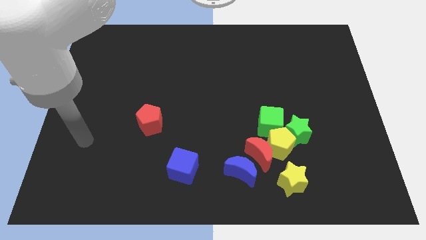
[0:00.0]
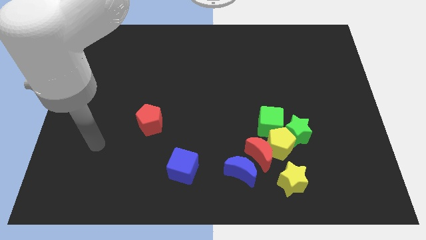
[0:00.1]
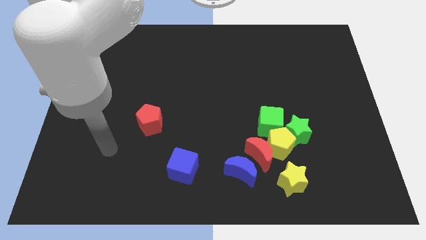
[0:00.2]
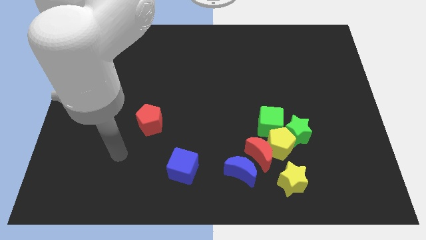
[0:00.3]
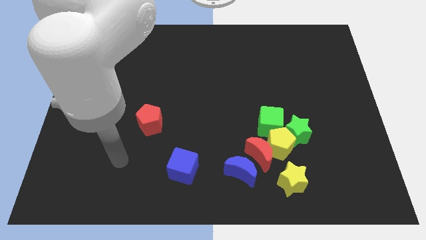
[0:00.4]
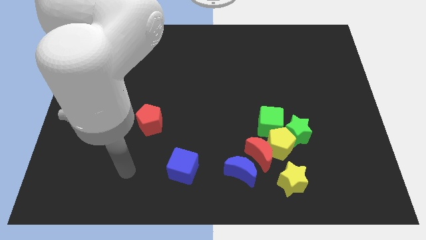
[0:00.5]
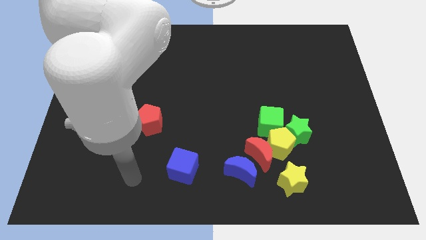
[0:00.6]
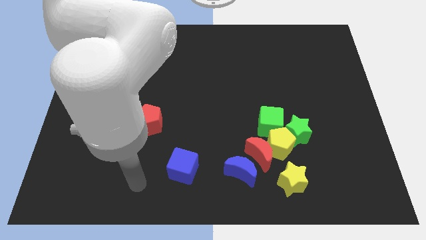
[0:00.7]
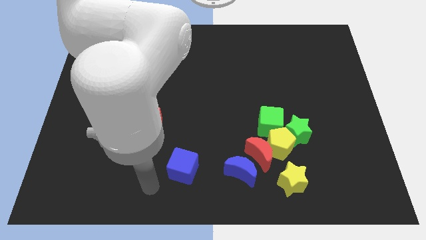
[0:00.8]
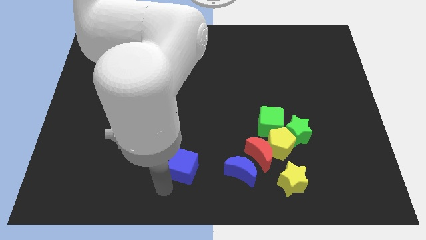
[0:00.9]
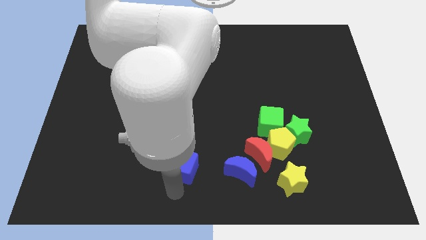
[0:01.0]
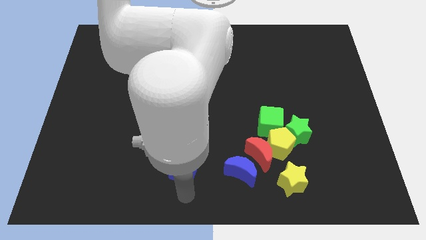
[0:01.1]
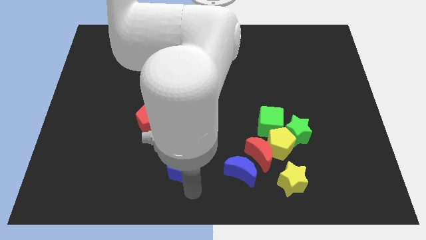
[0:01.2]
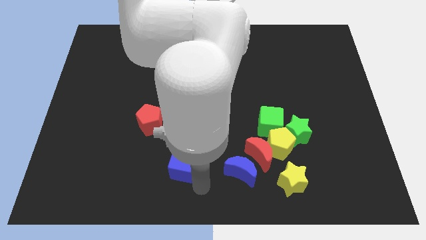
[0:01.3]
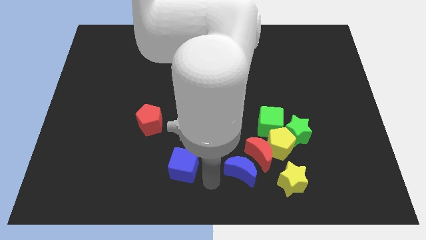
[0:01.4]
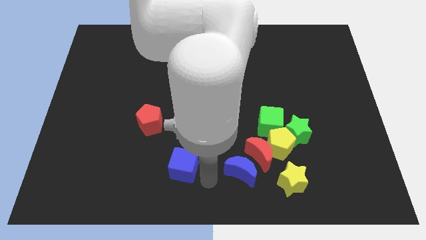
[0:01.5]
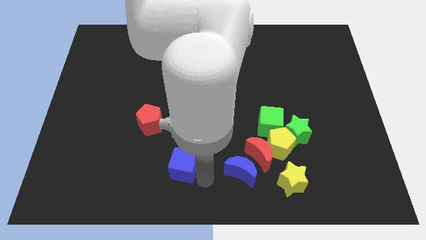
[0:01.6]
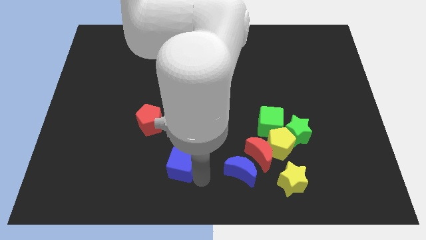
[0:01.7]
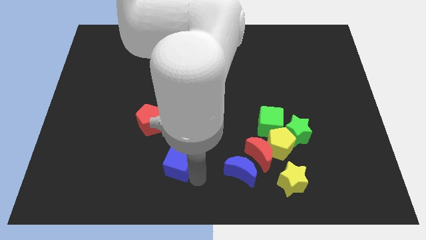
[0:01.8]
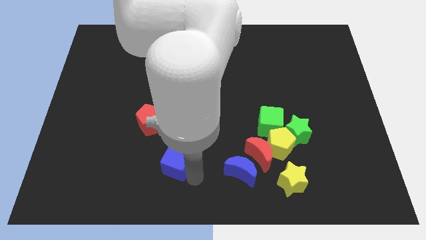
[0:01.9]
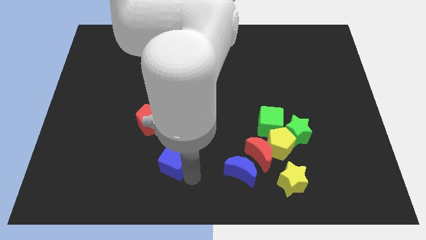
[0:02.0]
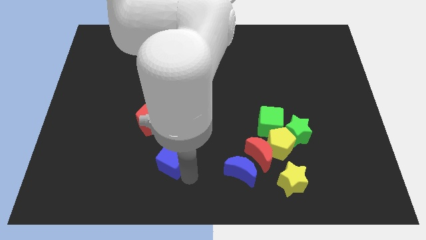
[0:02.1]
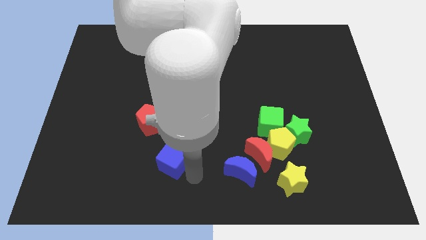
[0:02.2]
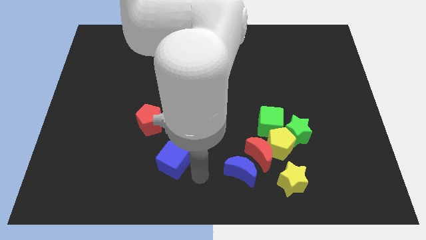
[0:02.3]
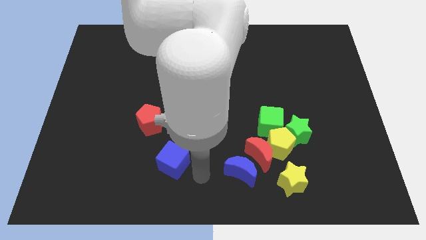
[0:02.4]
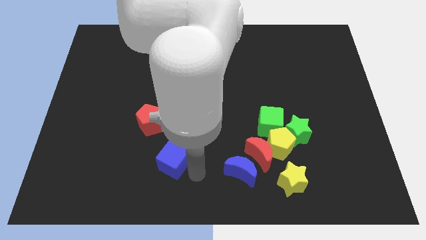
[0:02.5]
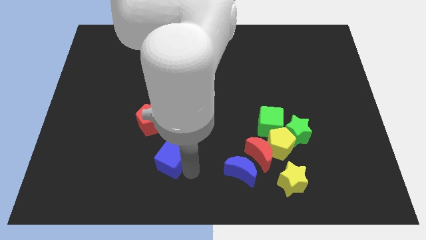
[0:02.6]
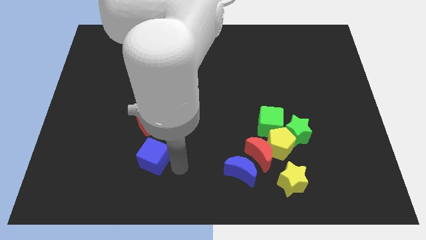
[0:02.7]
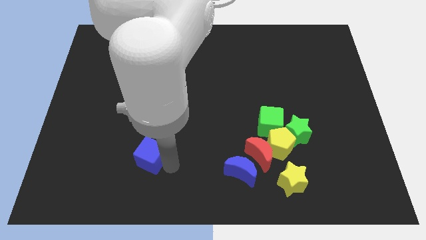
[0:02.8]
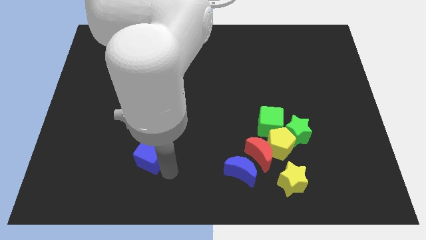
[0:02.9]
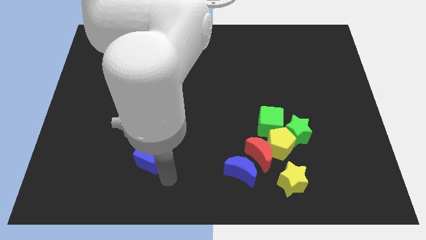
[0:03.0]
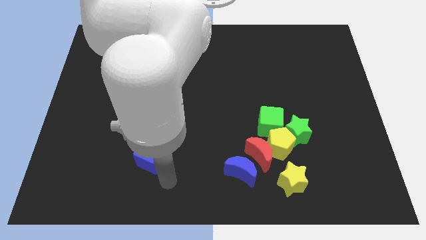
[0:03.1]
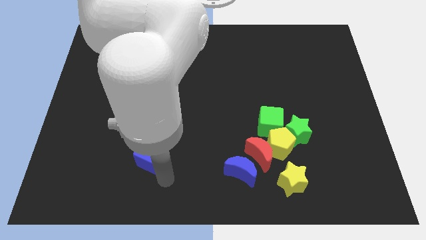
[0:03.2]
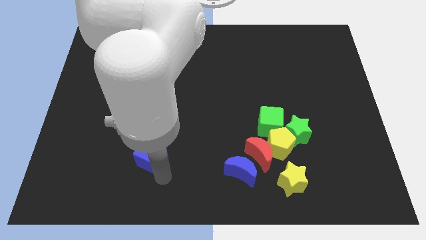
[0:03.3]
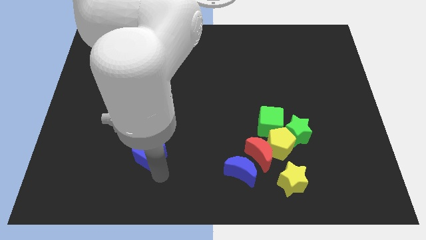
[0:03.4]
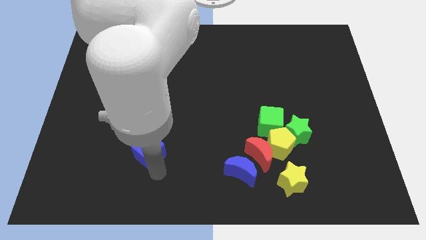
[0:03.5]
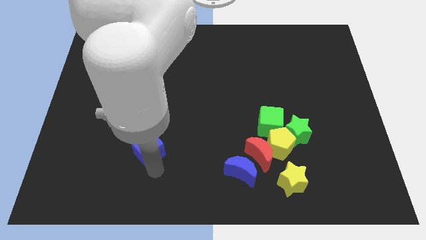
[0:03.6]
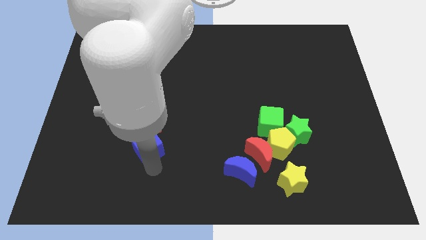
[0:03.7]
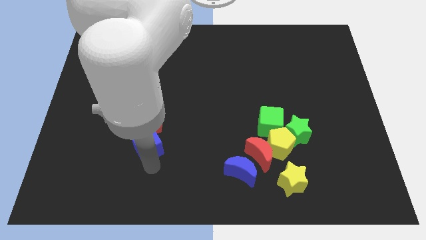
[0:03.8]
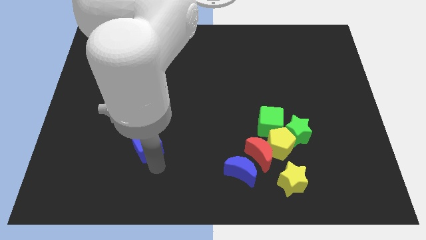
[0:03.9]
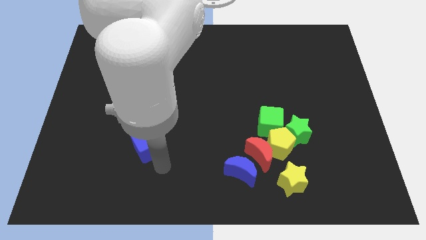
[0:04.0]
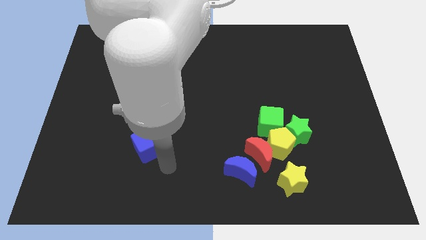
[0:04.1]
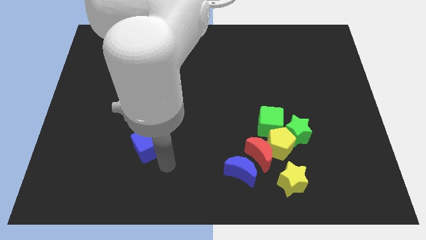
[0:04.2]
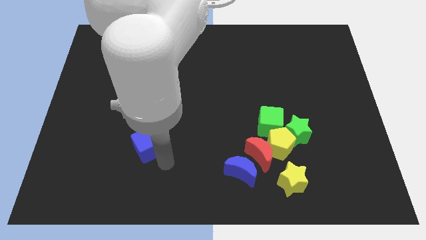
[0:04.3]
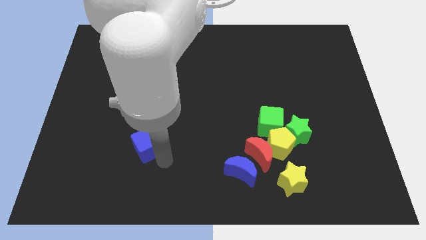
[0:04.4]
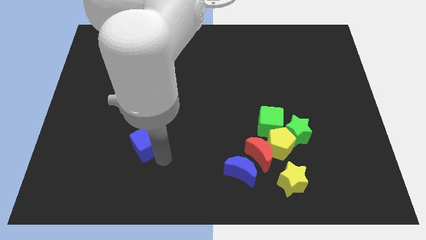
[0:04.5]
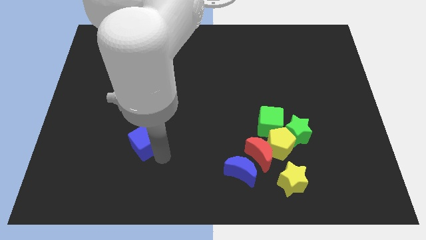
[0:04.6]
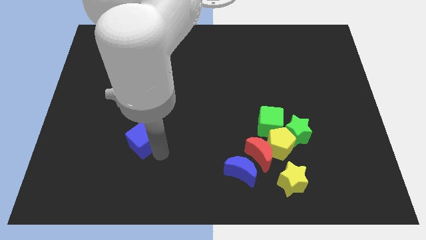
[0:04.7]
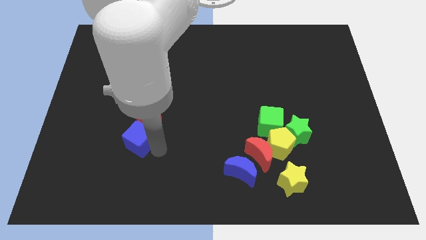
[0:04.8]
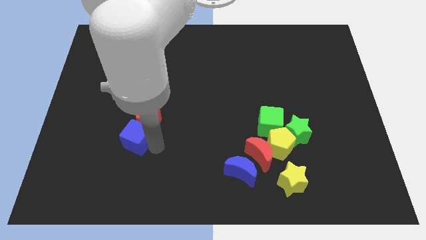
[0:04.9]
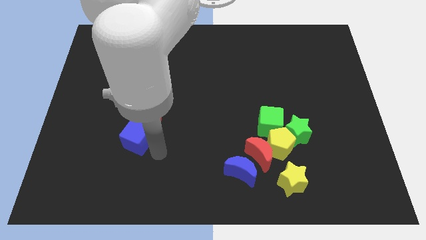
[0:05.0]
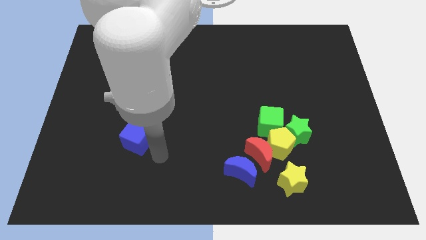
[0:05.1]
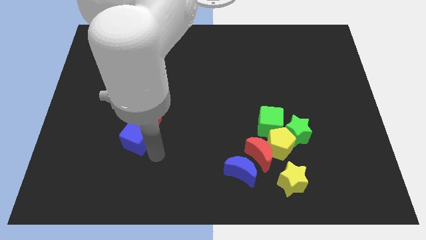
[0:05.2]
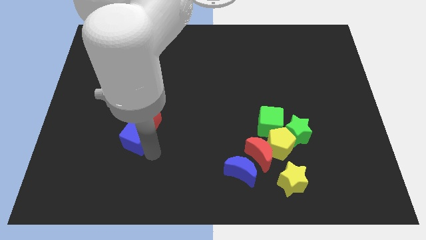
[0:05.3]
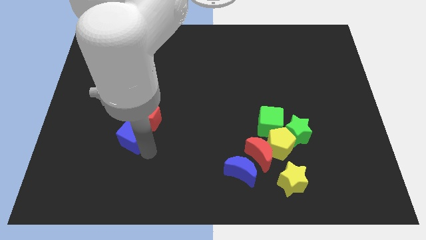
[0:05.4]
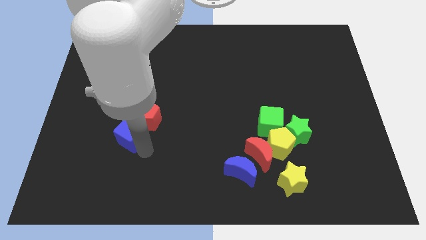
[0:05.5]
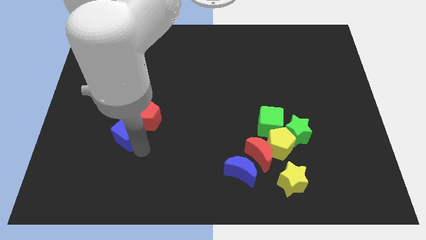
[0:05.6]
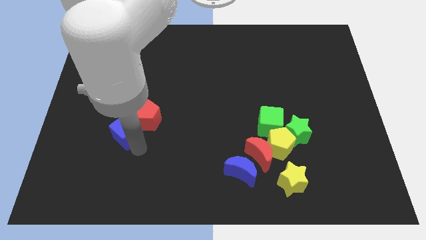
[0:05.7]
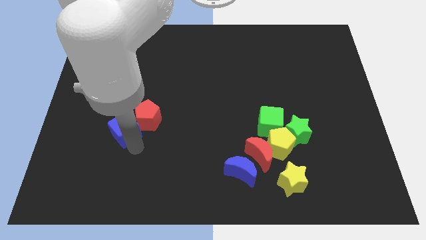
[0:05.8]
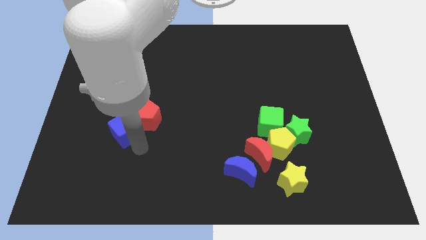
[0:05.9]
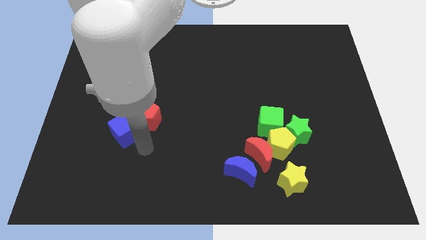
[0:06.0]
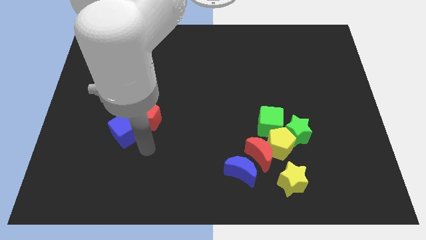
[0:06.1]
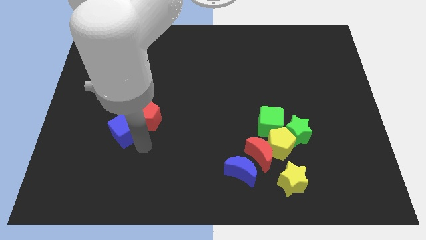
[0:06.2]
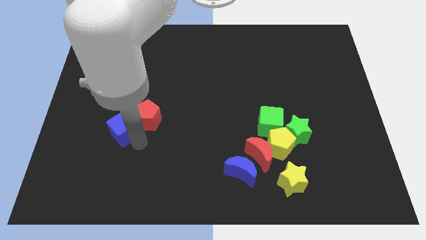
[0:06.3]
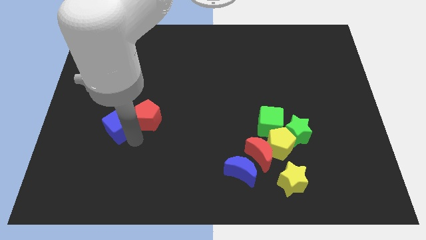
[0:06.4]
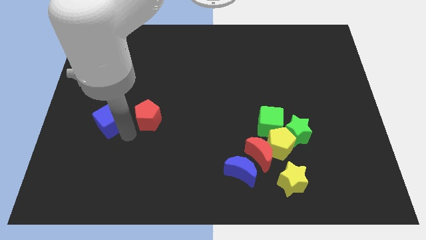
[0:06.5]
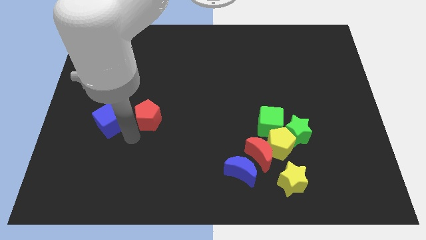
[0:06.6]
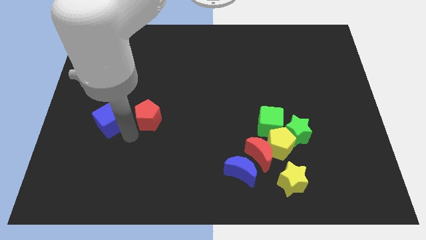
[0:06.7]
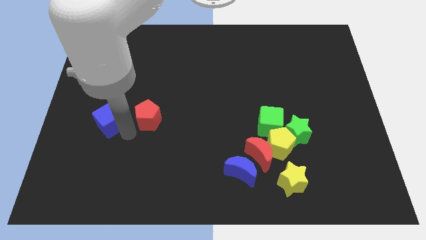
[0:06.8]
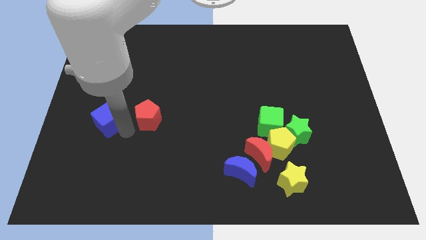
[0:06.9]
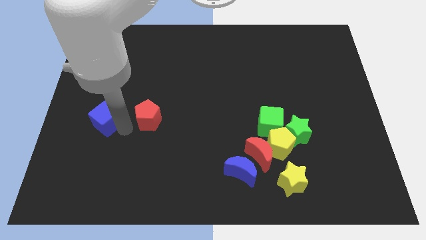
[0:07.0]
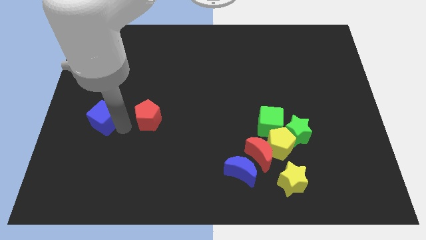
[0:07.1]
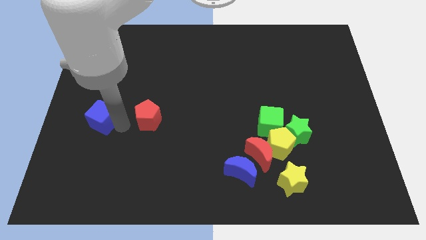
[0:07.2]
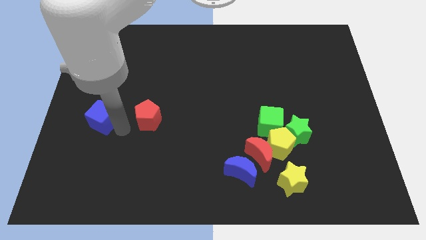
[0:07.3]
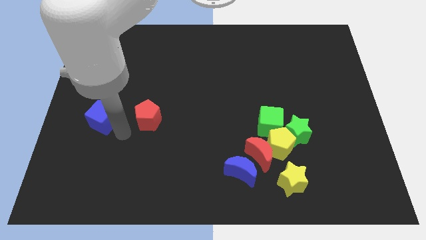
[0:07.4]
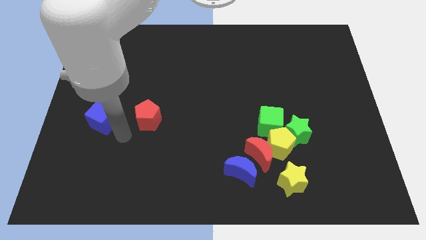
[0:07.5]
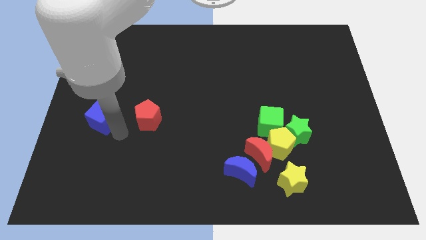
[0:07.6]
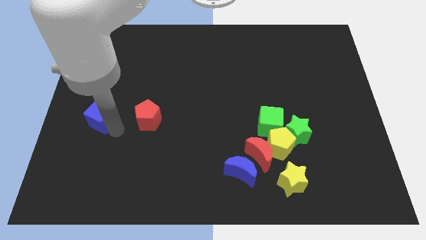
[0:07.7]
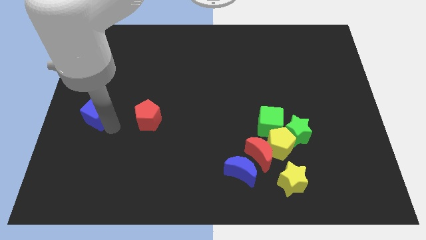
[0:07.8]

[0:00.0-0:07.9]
slide the blue cube to the left side
